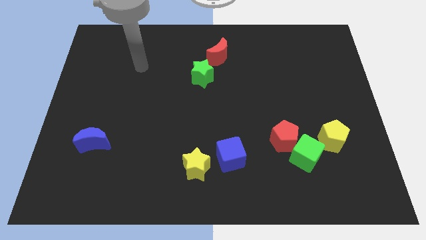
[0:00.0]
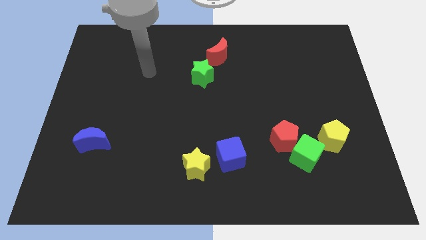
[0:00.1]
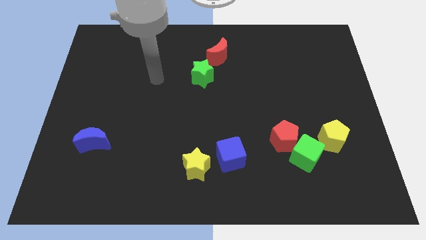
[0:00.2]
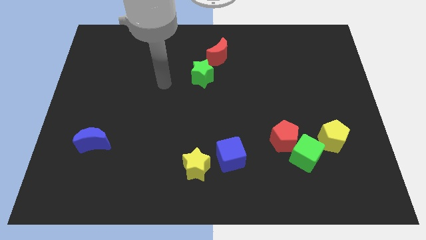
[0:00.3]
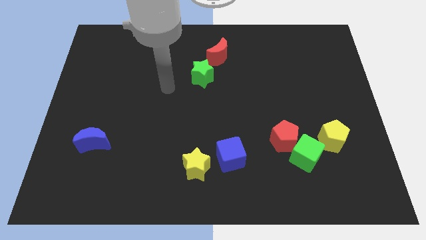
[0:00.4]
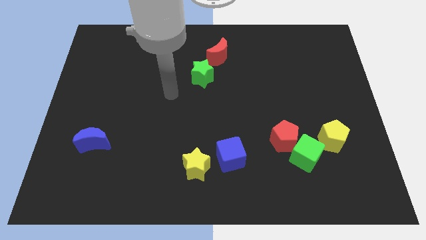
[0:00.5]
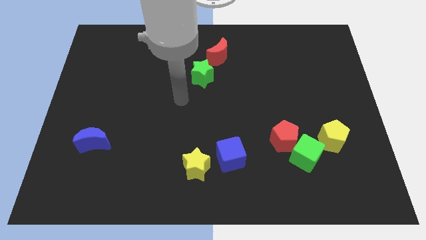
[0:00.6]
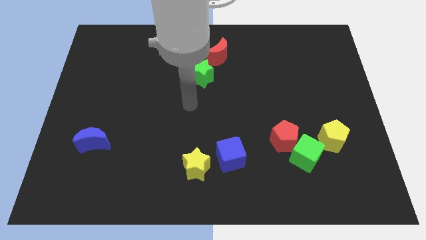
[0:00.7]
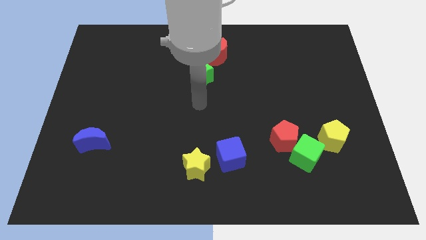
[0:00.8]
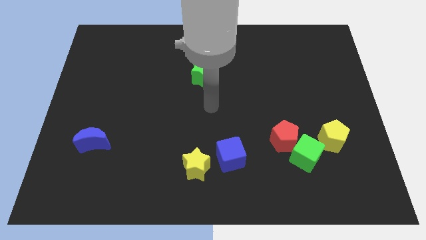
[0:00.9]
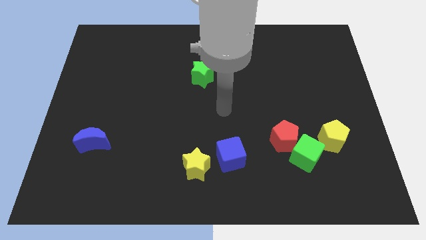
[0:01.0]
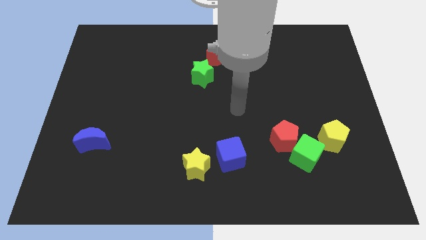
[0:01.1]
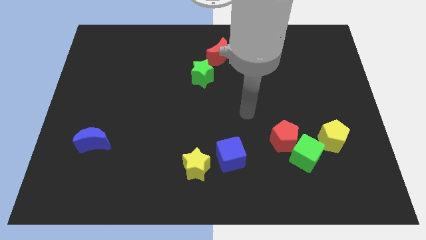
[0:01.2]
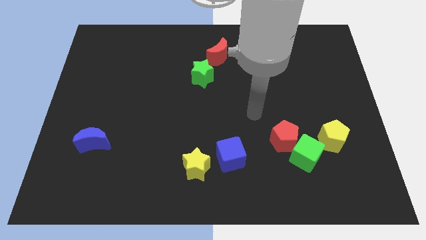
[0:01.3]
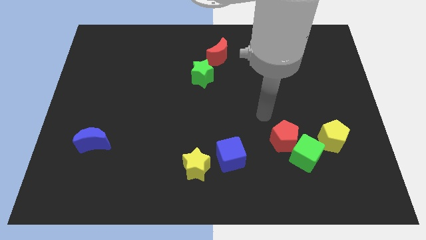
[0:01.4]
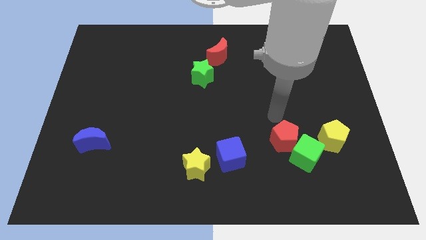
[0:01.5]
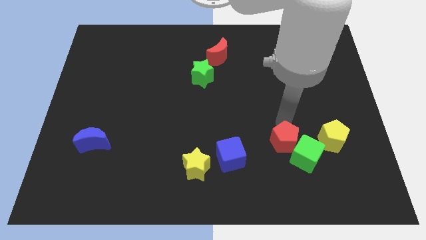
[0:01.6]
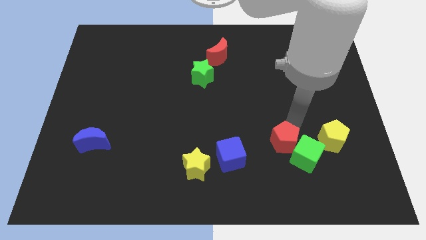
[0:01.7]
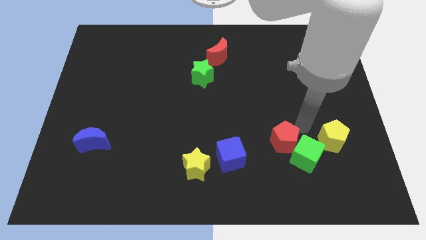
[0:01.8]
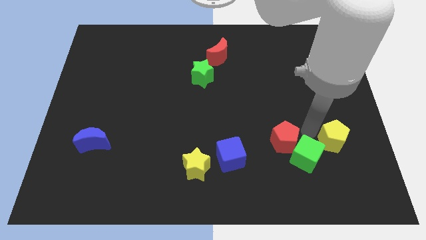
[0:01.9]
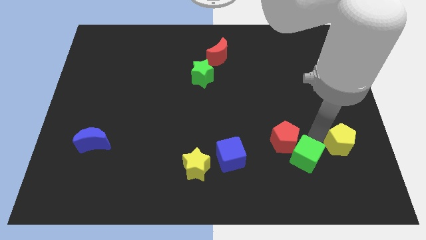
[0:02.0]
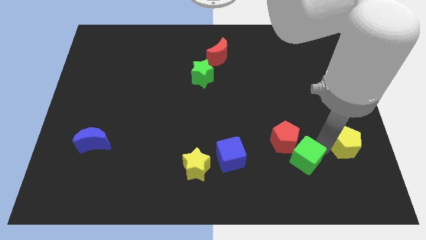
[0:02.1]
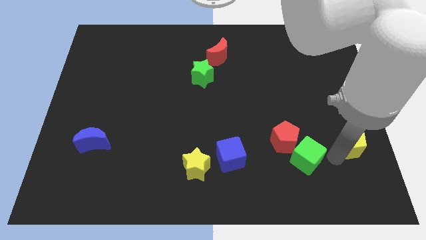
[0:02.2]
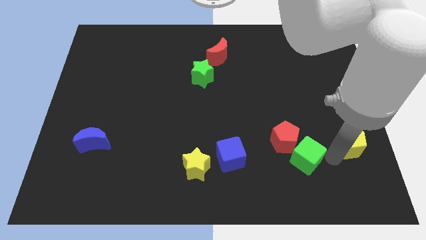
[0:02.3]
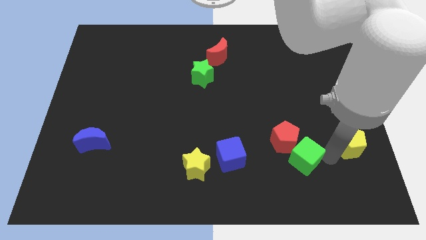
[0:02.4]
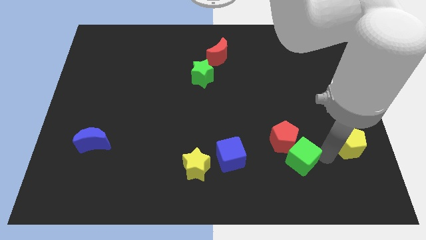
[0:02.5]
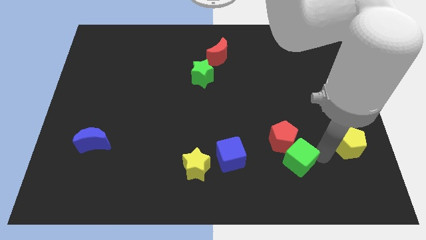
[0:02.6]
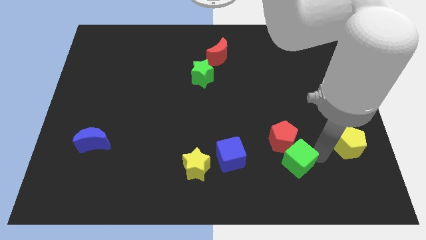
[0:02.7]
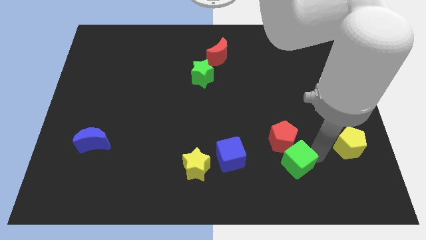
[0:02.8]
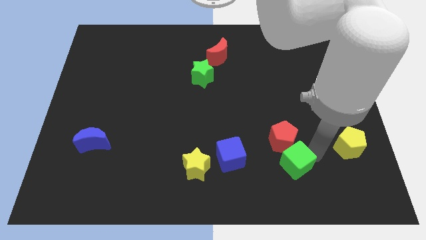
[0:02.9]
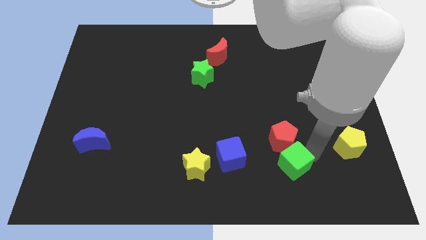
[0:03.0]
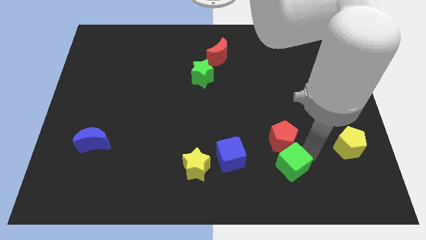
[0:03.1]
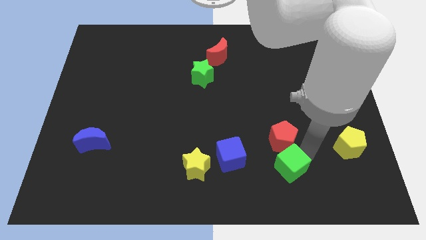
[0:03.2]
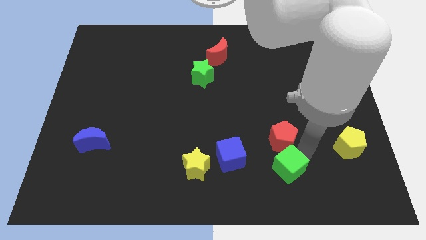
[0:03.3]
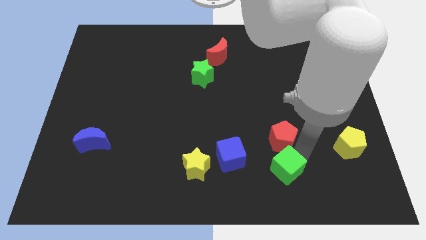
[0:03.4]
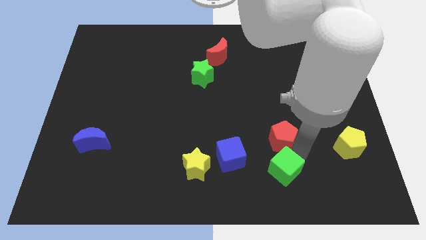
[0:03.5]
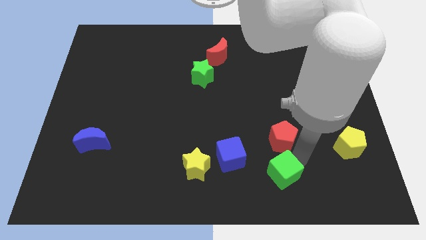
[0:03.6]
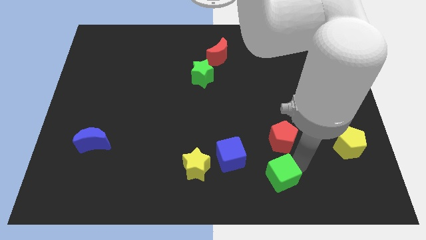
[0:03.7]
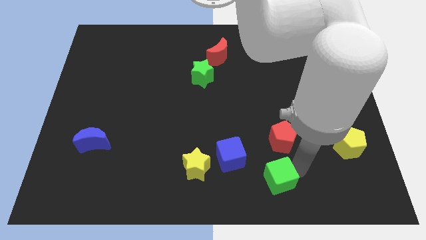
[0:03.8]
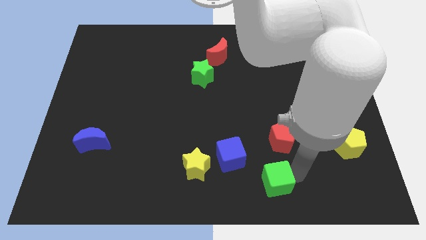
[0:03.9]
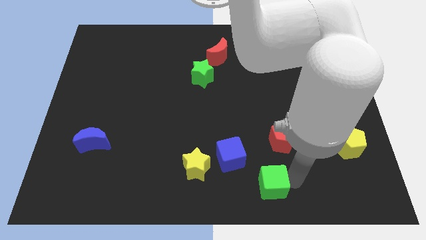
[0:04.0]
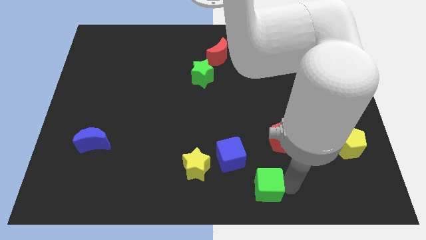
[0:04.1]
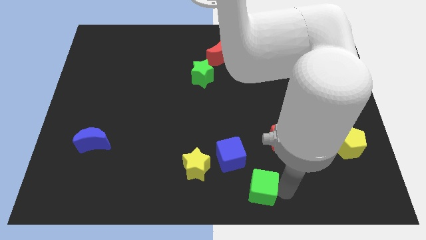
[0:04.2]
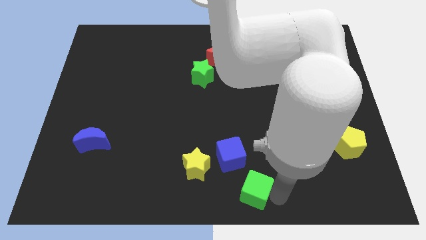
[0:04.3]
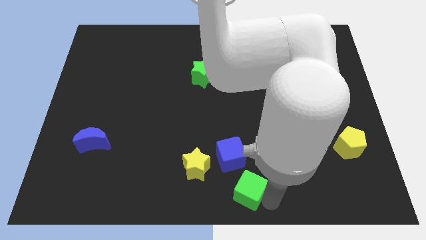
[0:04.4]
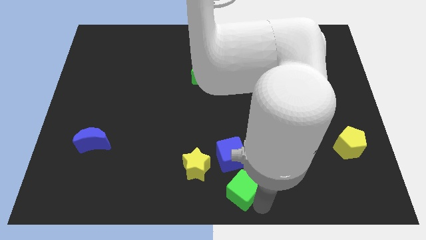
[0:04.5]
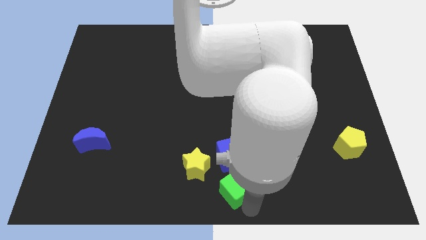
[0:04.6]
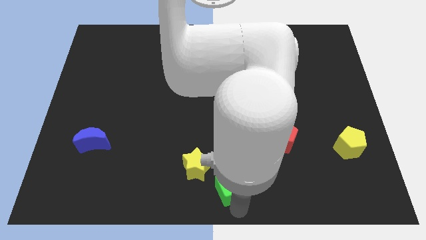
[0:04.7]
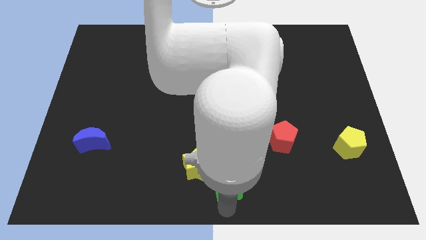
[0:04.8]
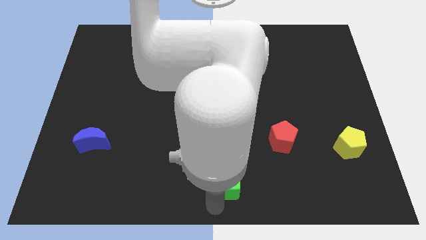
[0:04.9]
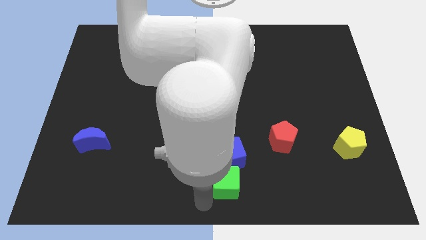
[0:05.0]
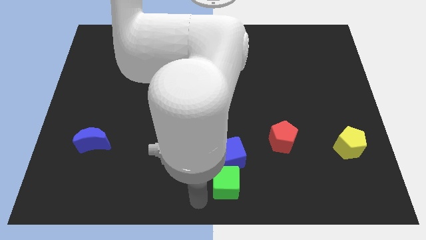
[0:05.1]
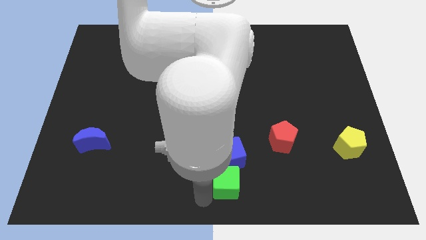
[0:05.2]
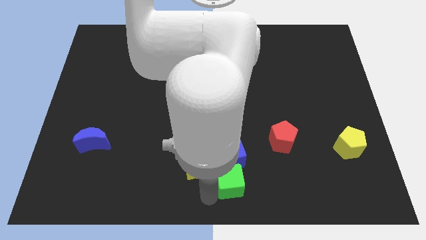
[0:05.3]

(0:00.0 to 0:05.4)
push the green cube towards the blue cube

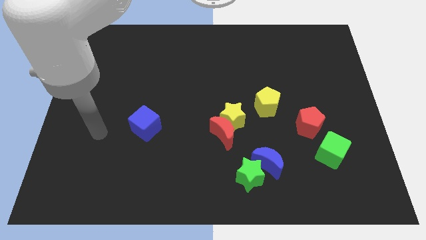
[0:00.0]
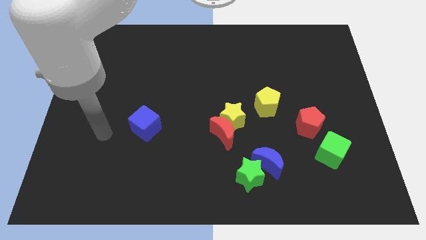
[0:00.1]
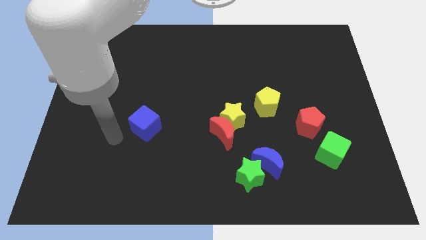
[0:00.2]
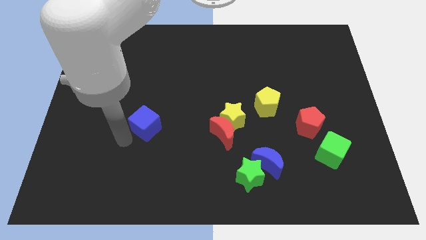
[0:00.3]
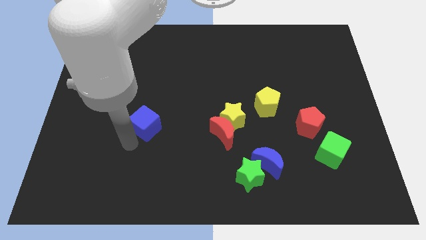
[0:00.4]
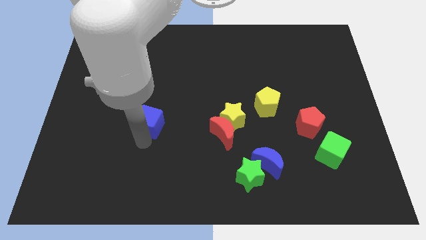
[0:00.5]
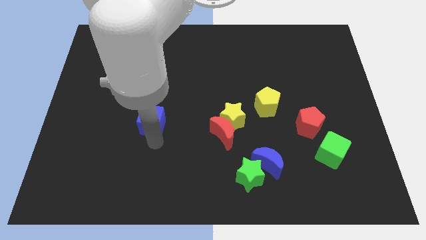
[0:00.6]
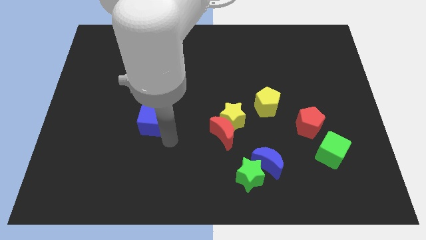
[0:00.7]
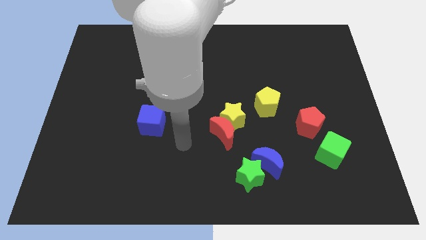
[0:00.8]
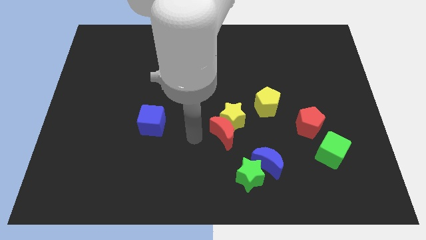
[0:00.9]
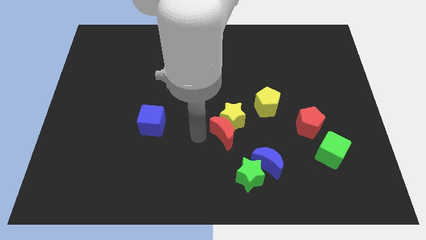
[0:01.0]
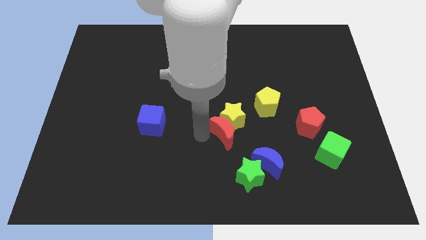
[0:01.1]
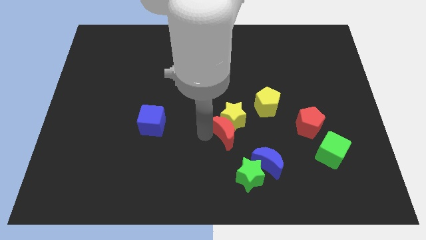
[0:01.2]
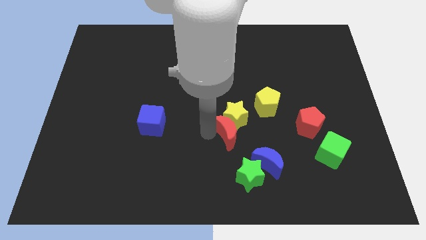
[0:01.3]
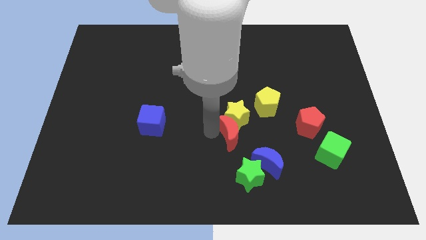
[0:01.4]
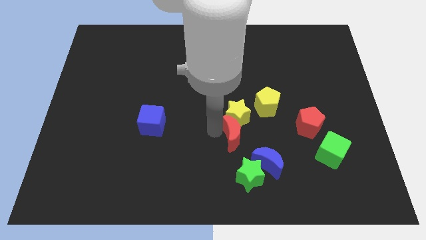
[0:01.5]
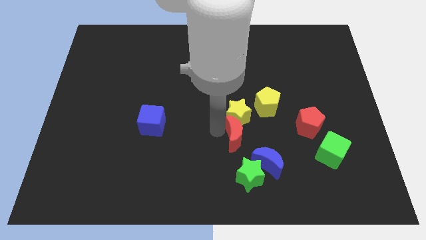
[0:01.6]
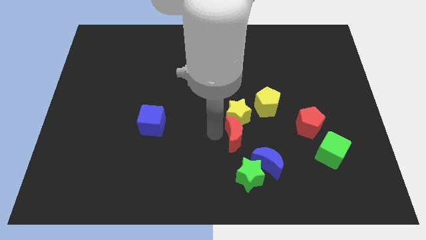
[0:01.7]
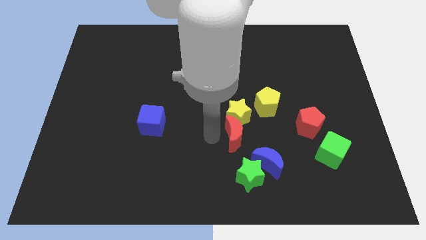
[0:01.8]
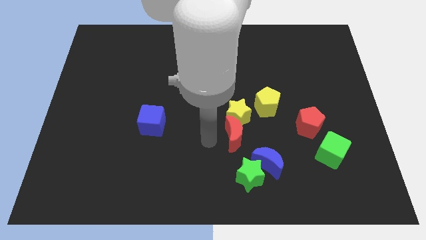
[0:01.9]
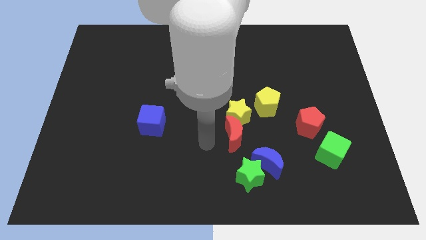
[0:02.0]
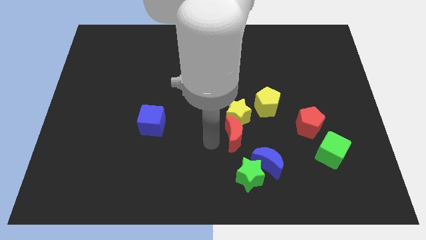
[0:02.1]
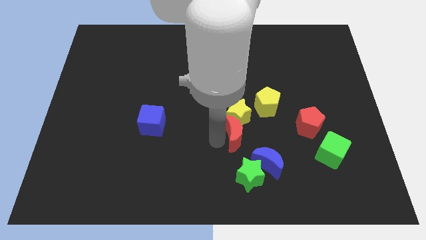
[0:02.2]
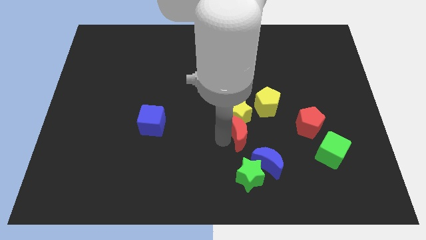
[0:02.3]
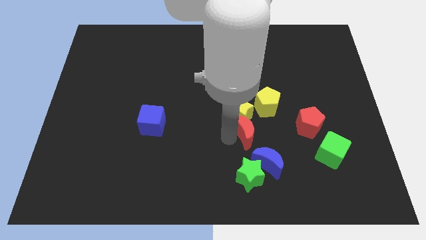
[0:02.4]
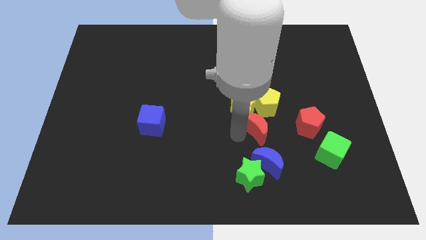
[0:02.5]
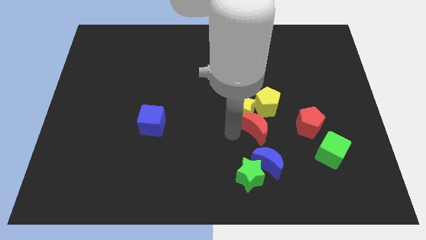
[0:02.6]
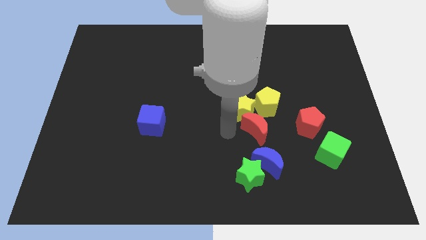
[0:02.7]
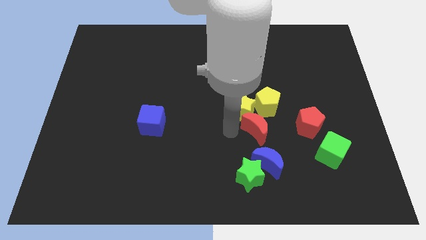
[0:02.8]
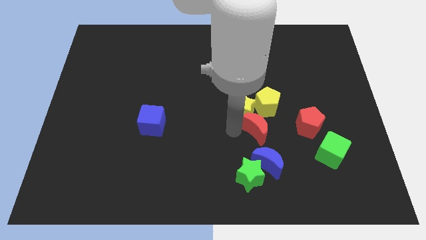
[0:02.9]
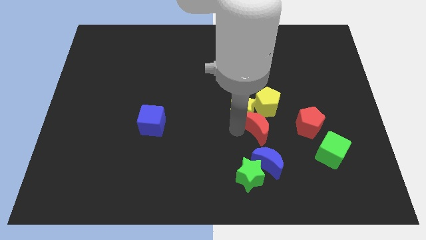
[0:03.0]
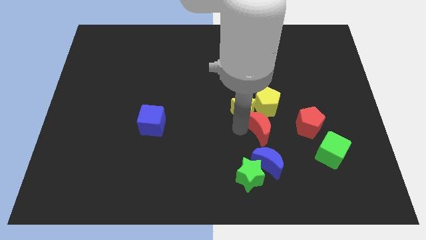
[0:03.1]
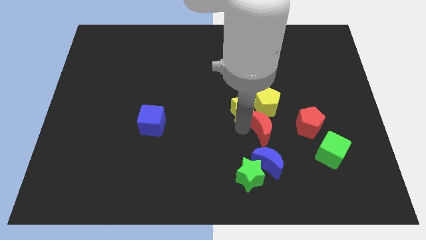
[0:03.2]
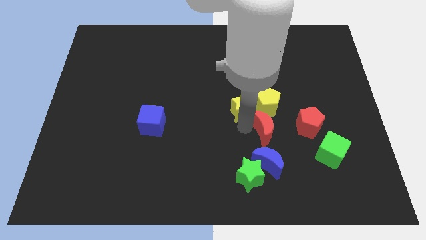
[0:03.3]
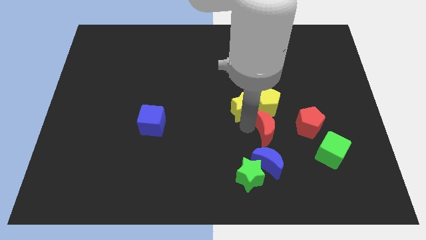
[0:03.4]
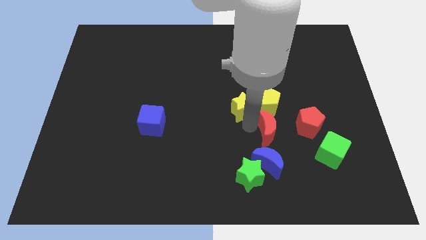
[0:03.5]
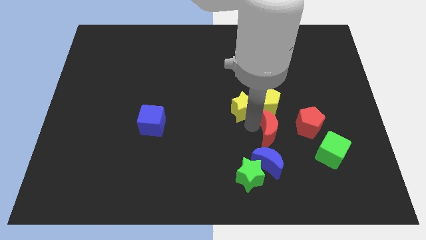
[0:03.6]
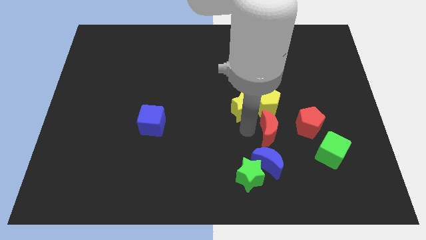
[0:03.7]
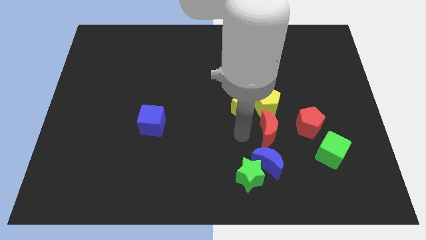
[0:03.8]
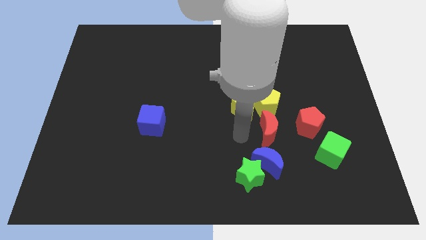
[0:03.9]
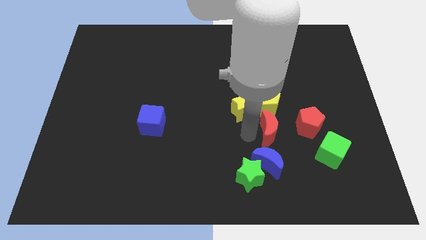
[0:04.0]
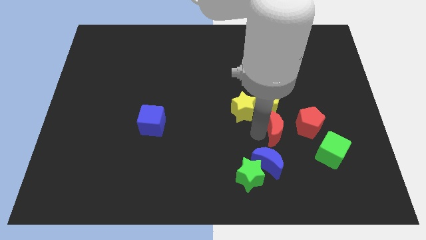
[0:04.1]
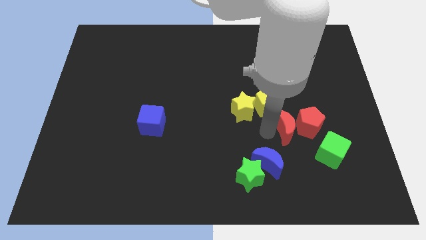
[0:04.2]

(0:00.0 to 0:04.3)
put the red moon close to the red pentagon
